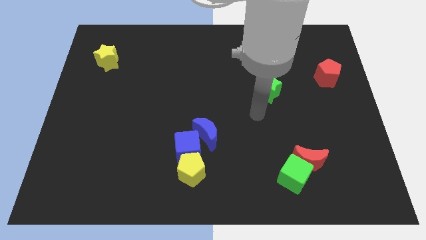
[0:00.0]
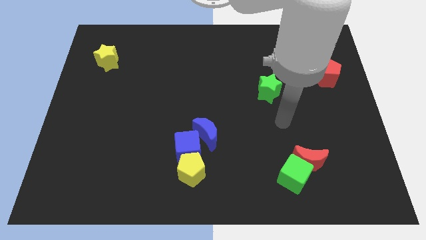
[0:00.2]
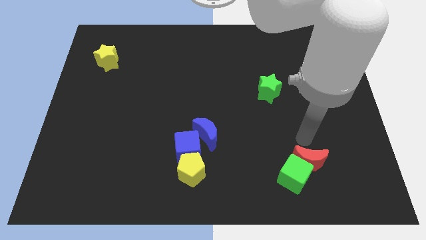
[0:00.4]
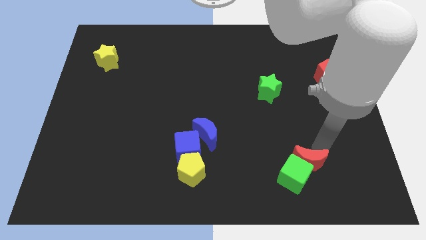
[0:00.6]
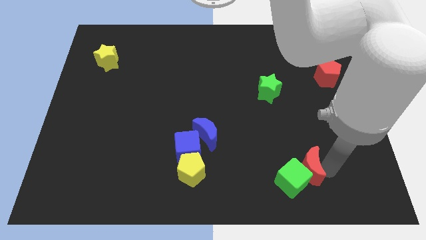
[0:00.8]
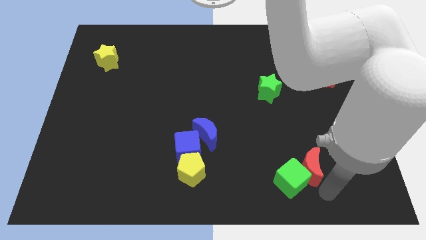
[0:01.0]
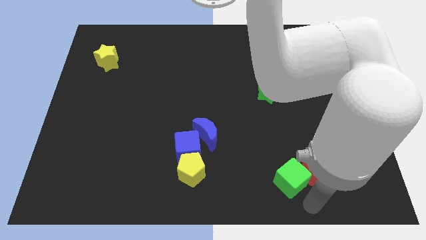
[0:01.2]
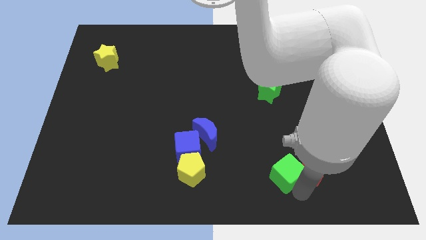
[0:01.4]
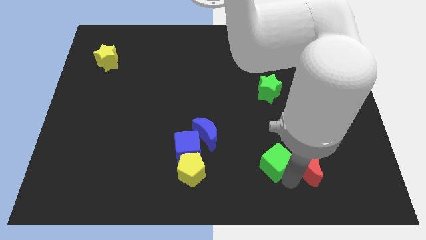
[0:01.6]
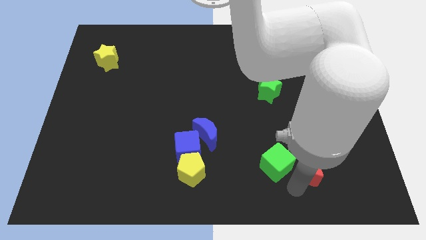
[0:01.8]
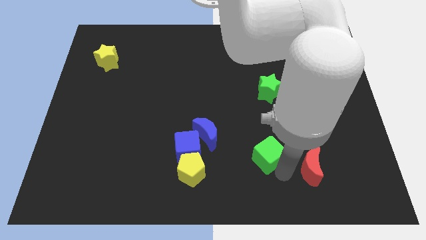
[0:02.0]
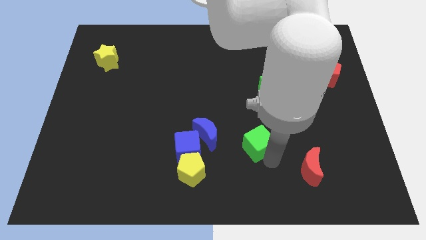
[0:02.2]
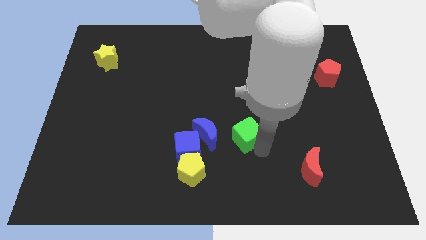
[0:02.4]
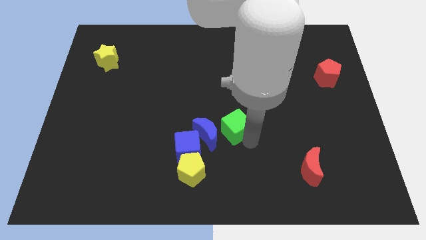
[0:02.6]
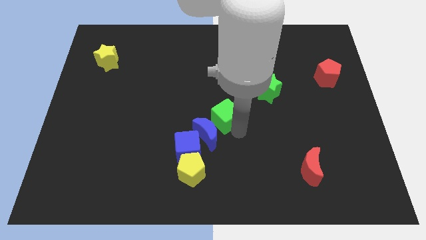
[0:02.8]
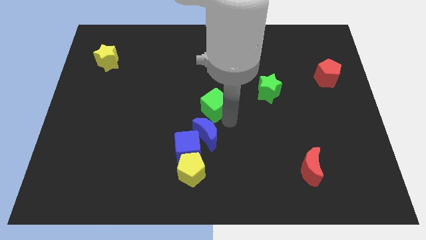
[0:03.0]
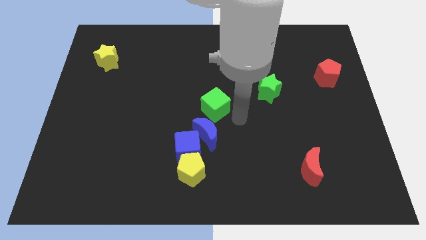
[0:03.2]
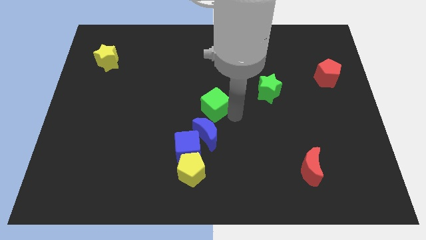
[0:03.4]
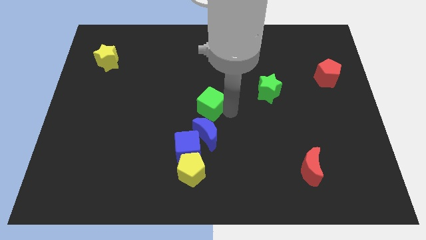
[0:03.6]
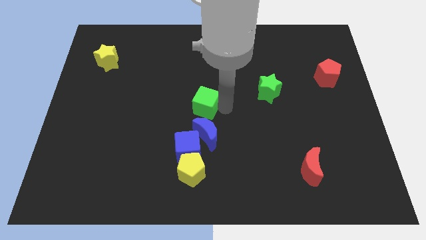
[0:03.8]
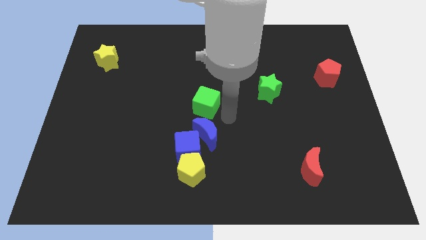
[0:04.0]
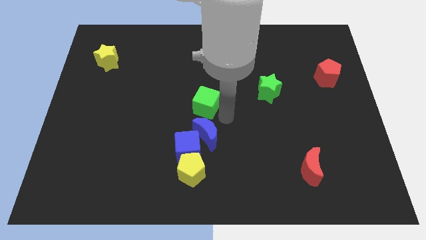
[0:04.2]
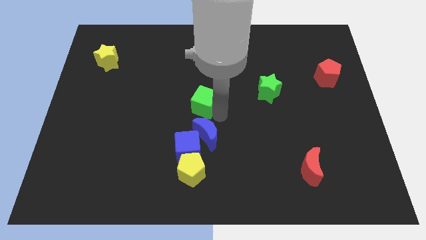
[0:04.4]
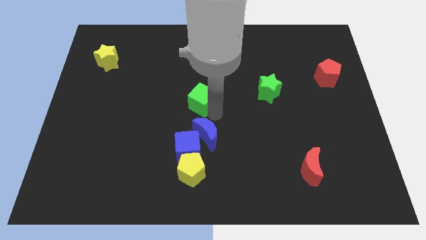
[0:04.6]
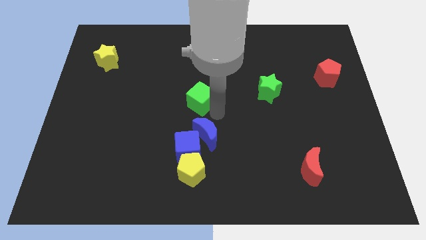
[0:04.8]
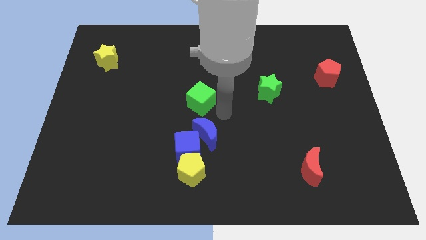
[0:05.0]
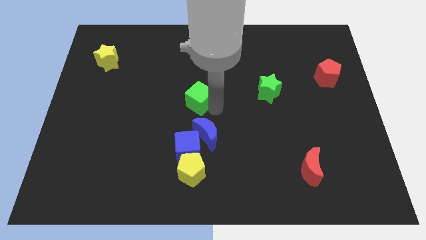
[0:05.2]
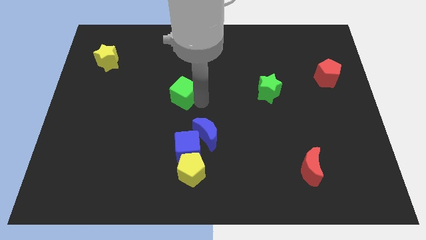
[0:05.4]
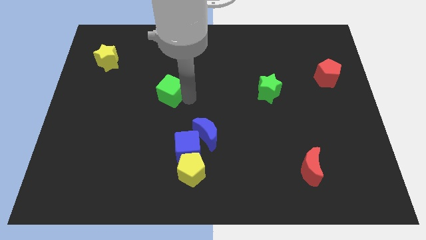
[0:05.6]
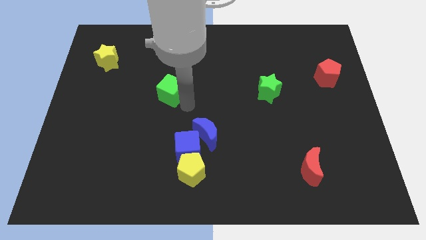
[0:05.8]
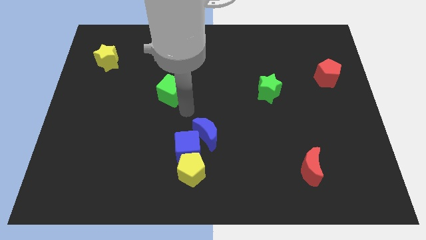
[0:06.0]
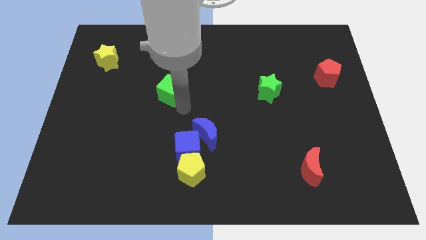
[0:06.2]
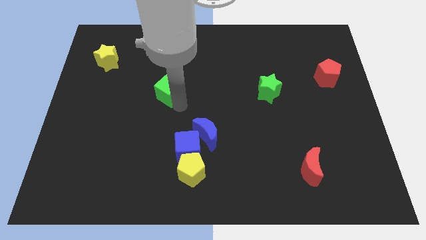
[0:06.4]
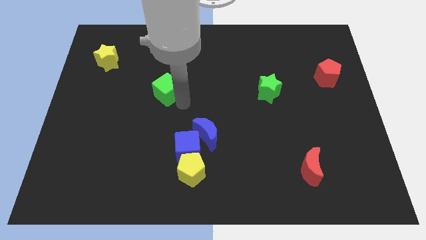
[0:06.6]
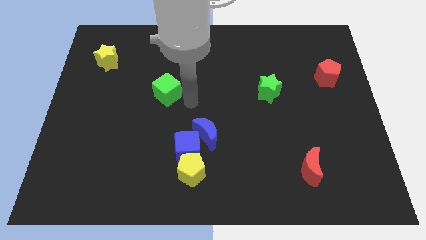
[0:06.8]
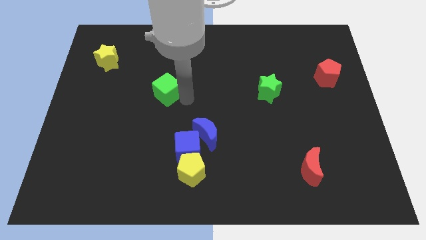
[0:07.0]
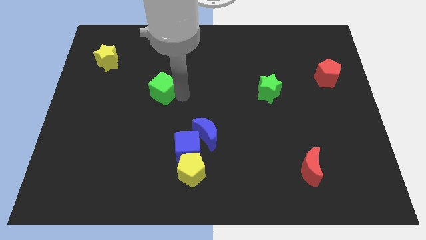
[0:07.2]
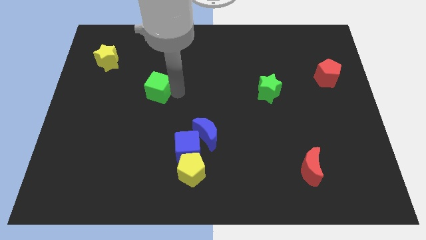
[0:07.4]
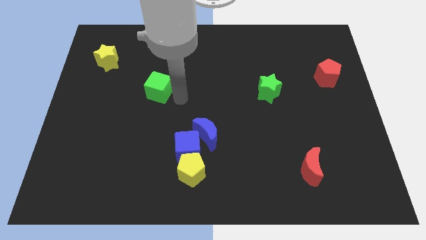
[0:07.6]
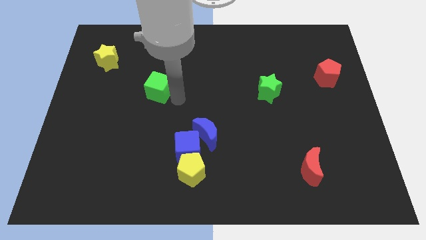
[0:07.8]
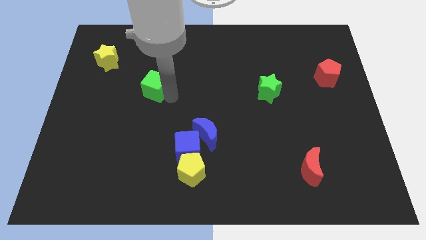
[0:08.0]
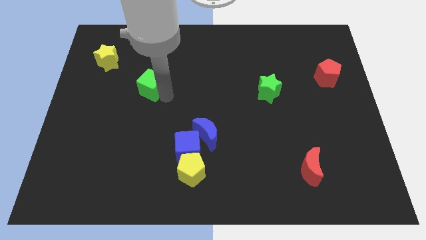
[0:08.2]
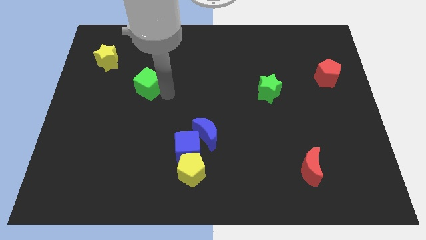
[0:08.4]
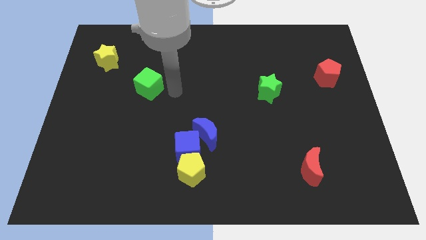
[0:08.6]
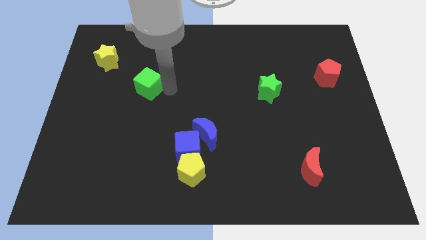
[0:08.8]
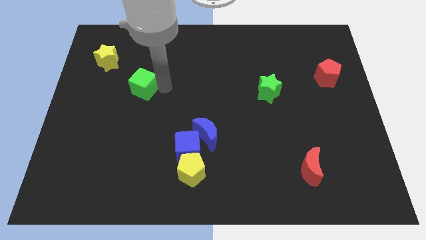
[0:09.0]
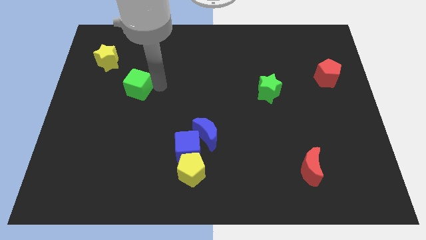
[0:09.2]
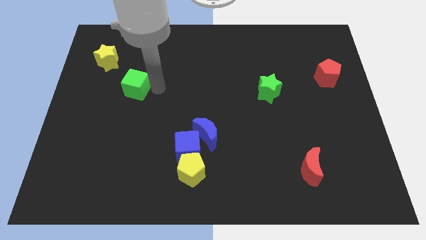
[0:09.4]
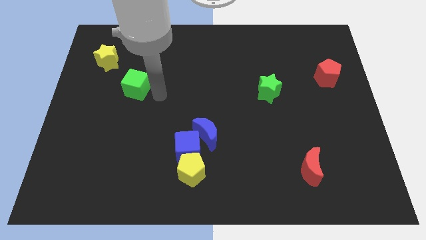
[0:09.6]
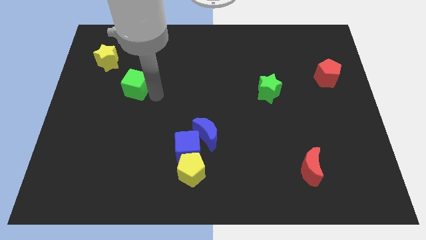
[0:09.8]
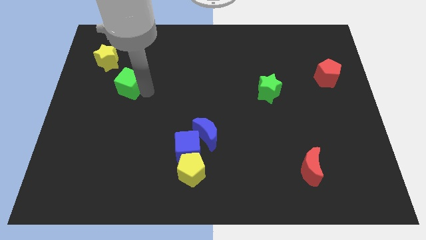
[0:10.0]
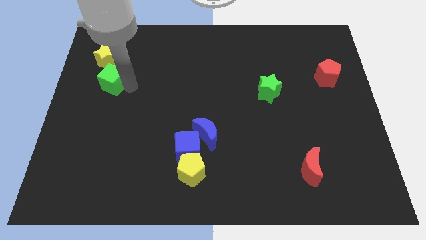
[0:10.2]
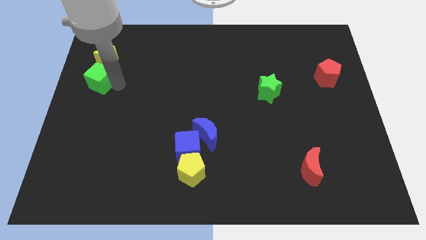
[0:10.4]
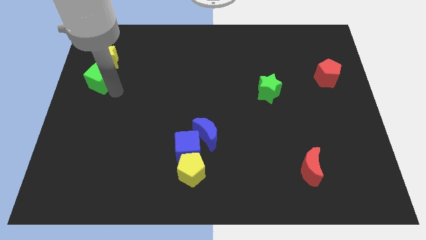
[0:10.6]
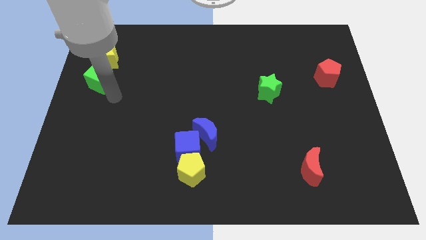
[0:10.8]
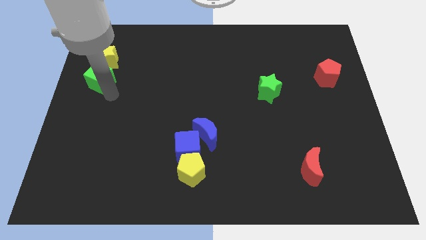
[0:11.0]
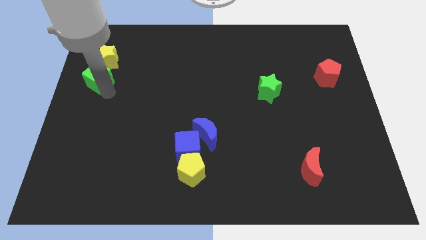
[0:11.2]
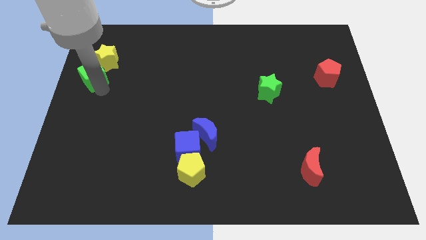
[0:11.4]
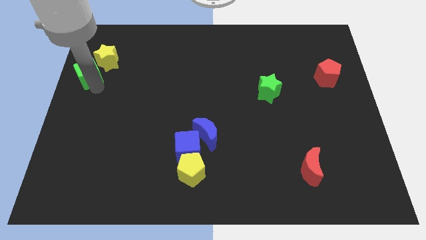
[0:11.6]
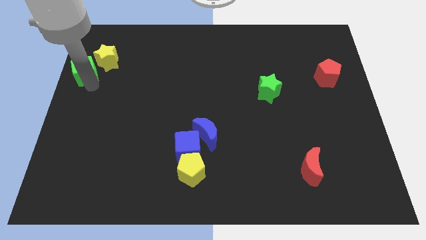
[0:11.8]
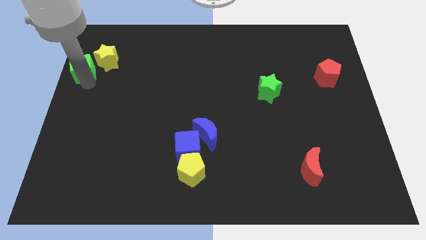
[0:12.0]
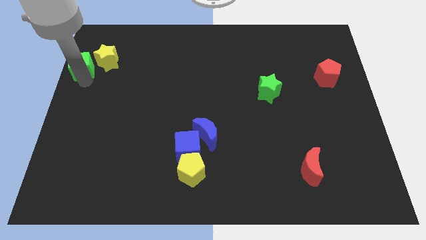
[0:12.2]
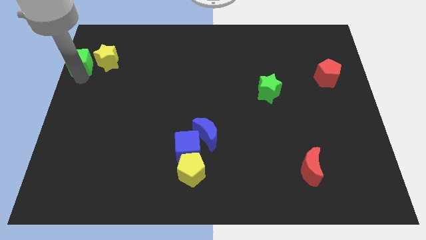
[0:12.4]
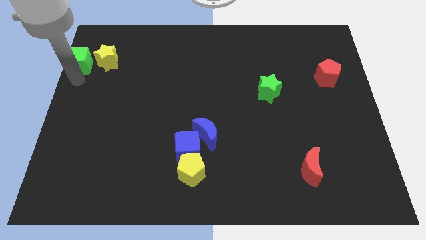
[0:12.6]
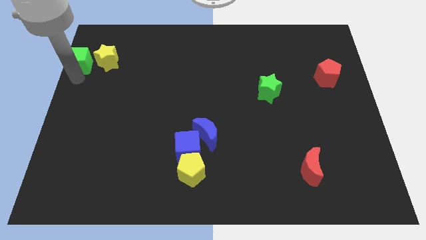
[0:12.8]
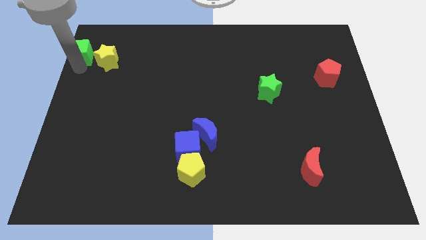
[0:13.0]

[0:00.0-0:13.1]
push the green cube to the top left

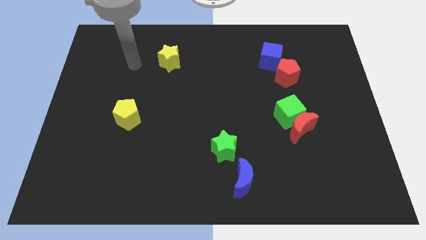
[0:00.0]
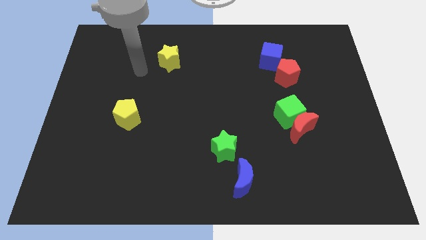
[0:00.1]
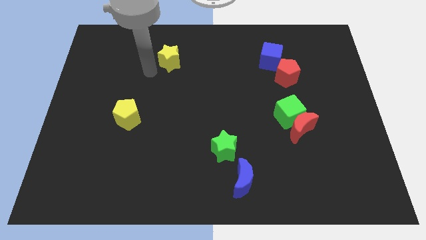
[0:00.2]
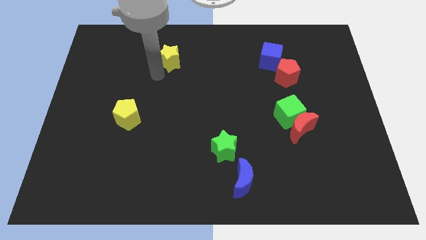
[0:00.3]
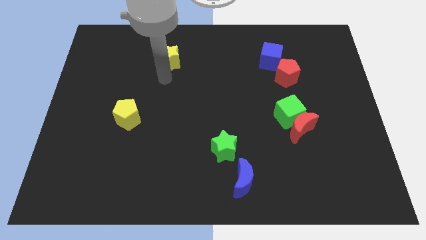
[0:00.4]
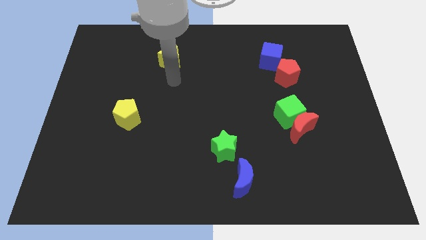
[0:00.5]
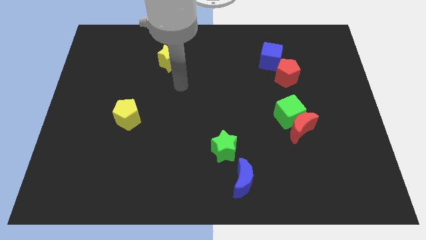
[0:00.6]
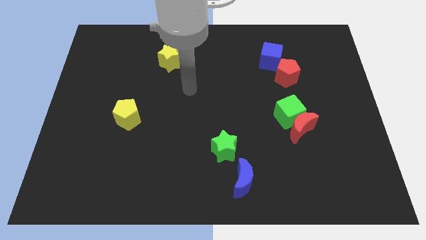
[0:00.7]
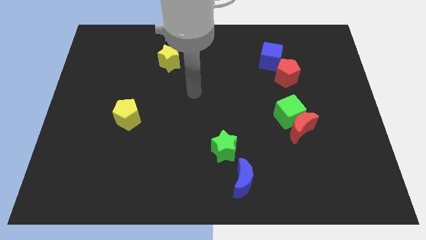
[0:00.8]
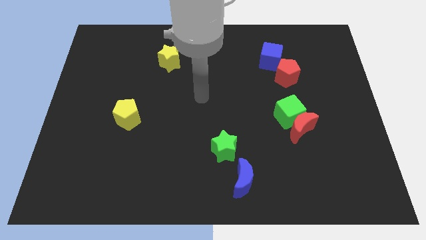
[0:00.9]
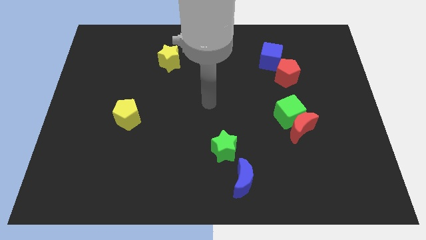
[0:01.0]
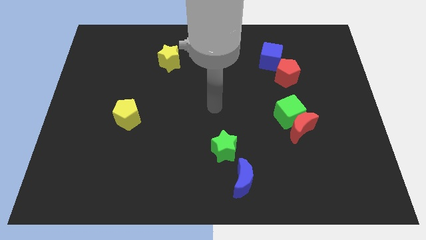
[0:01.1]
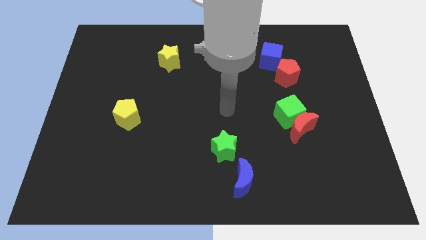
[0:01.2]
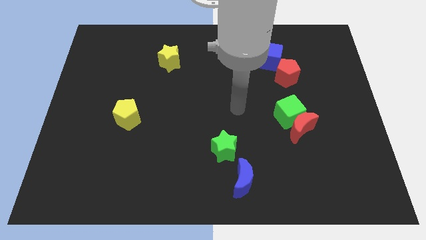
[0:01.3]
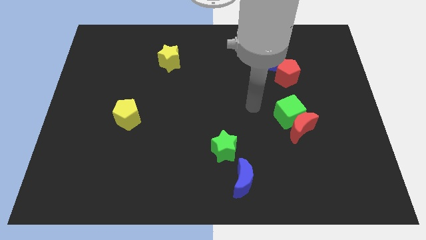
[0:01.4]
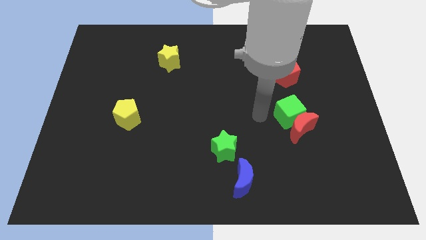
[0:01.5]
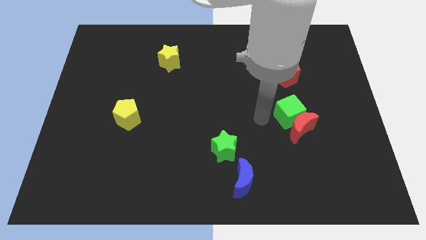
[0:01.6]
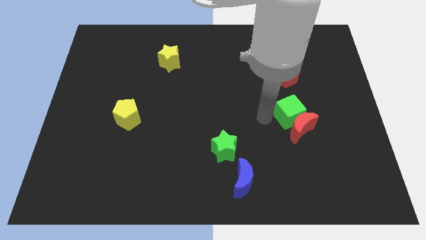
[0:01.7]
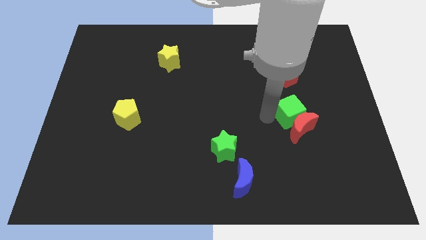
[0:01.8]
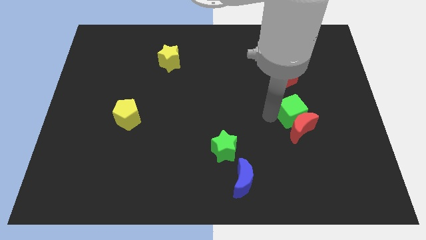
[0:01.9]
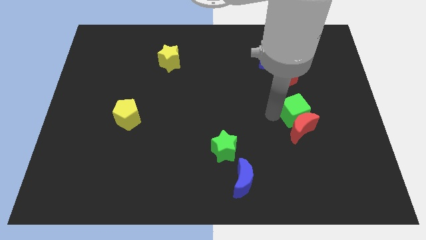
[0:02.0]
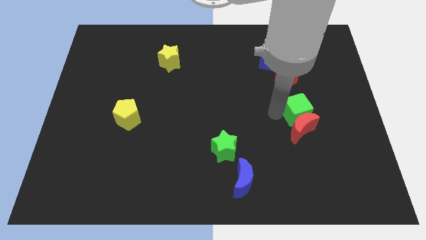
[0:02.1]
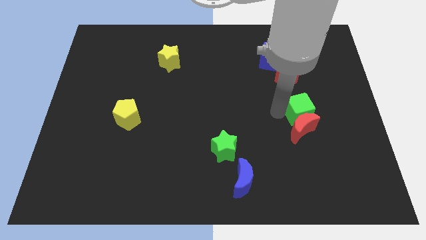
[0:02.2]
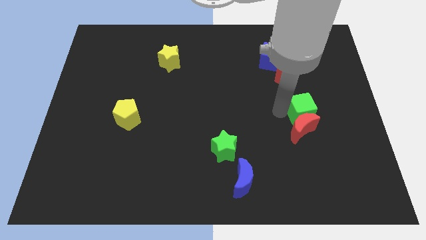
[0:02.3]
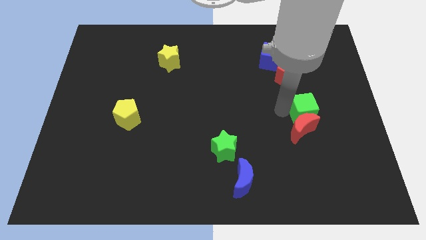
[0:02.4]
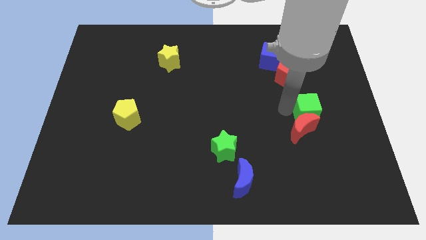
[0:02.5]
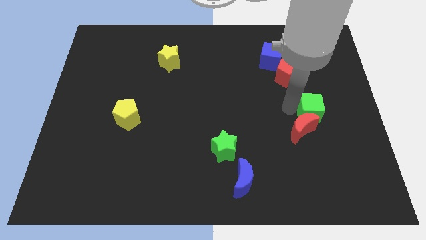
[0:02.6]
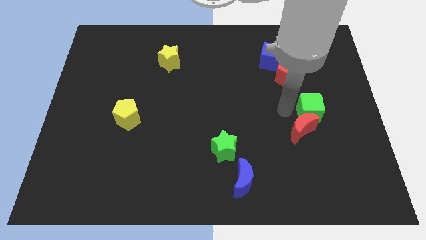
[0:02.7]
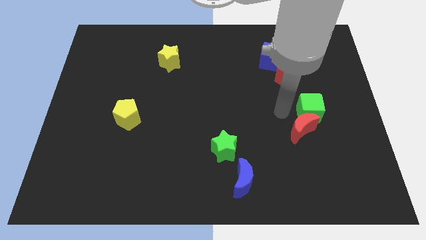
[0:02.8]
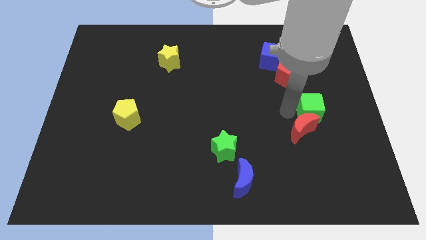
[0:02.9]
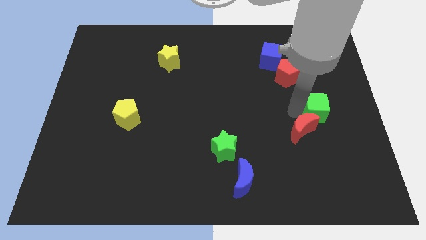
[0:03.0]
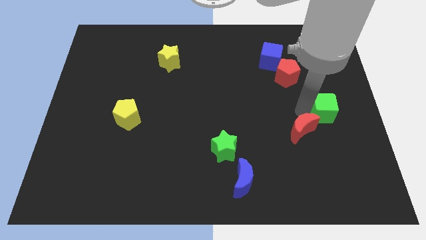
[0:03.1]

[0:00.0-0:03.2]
move the green cube to the right side of the board
